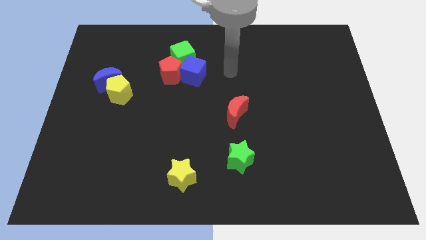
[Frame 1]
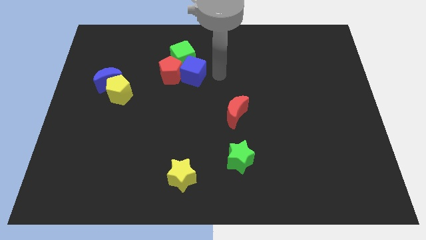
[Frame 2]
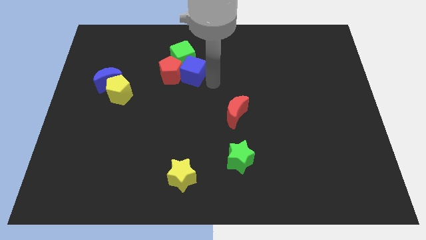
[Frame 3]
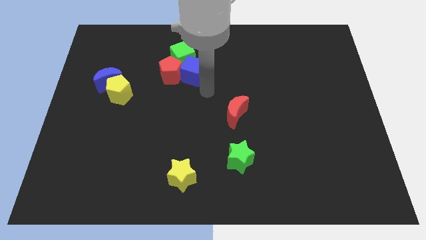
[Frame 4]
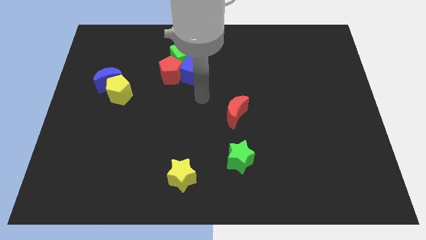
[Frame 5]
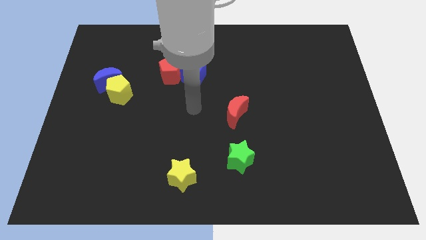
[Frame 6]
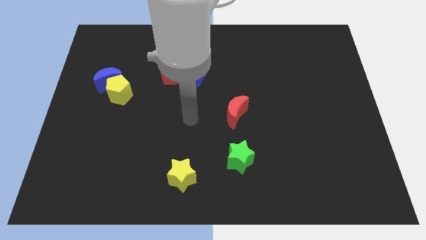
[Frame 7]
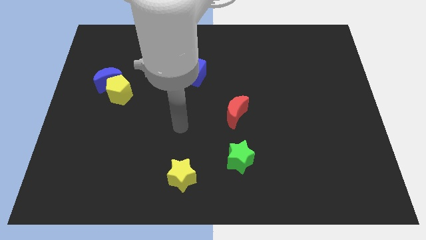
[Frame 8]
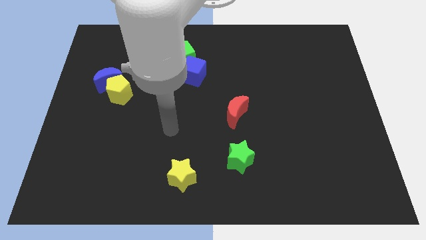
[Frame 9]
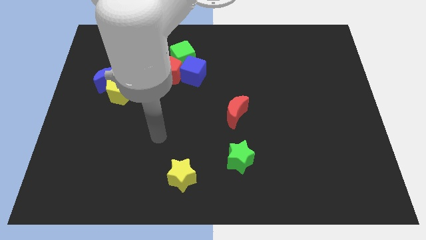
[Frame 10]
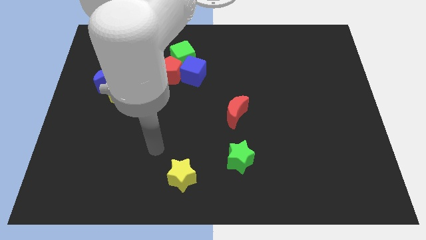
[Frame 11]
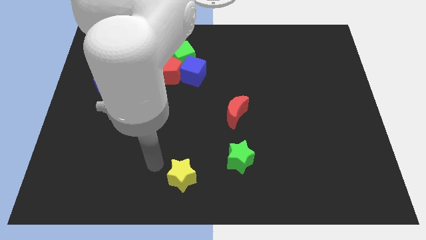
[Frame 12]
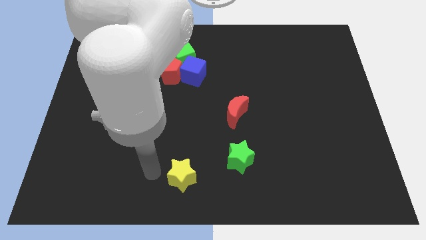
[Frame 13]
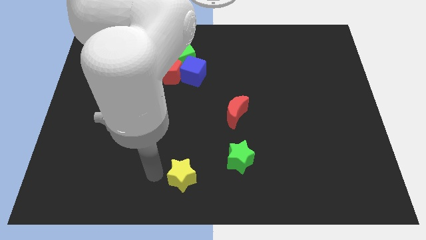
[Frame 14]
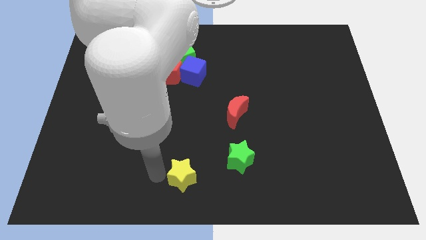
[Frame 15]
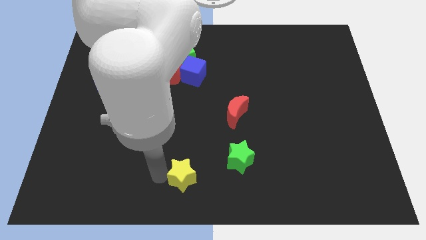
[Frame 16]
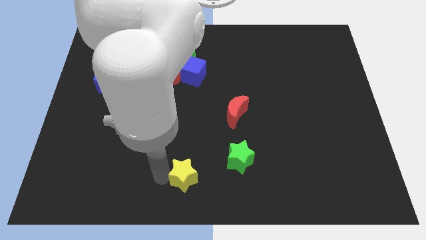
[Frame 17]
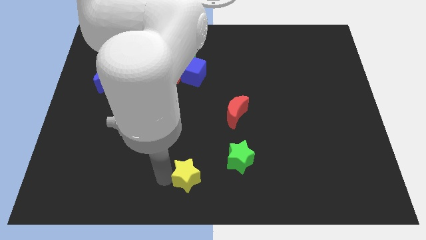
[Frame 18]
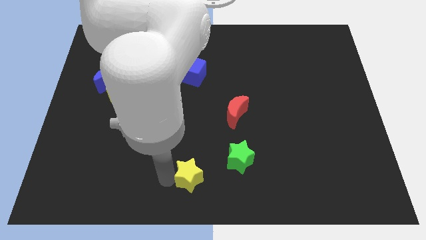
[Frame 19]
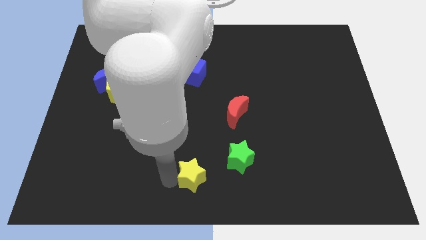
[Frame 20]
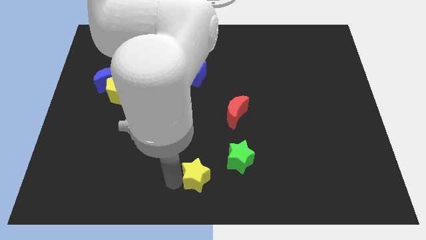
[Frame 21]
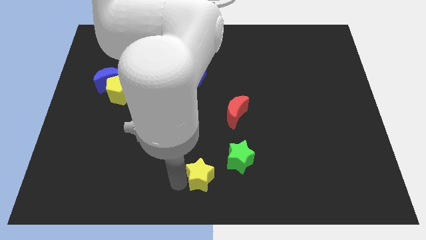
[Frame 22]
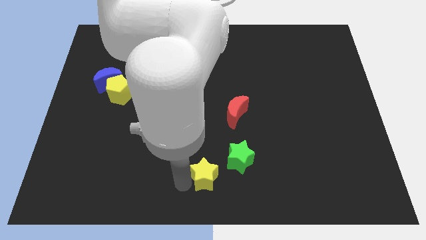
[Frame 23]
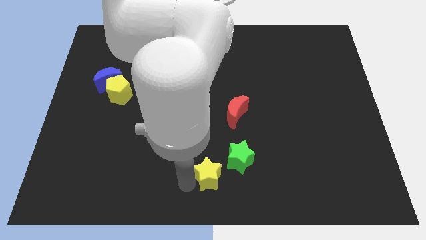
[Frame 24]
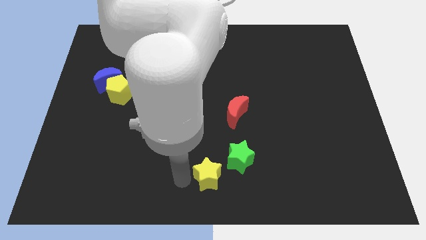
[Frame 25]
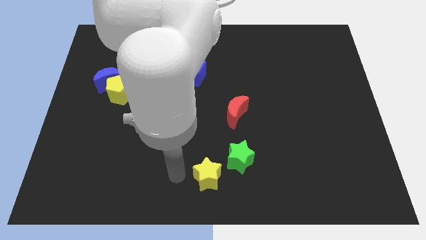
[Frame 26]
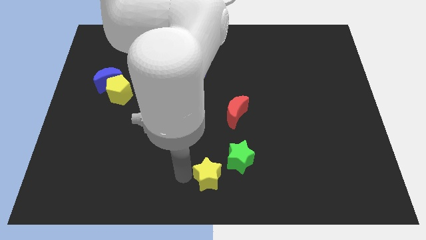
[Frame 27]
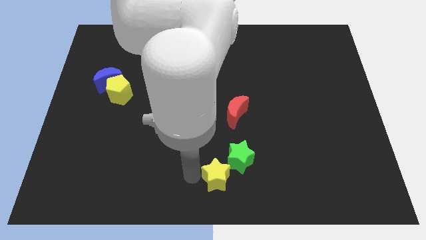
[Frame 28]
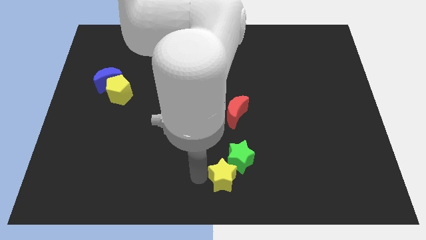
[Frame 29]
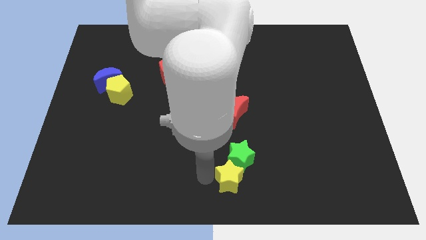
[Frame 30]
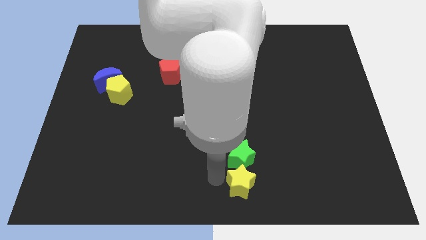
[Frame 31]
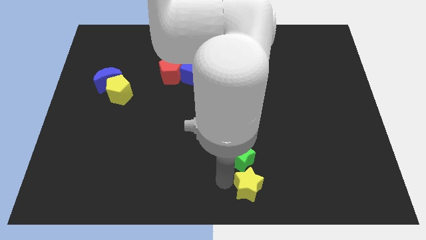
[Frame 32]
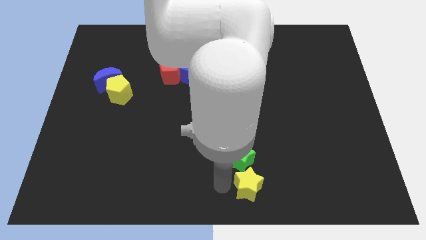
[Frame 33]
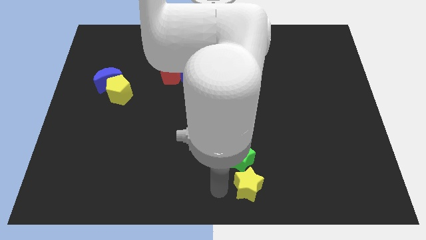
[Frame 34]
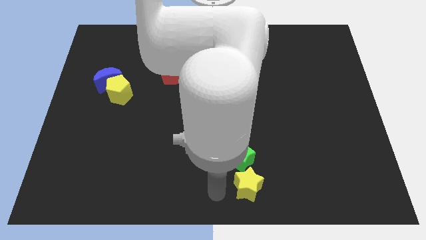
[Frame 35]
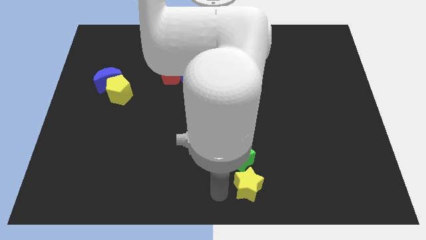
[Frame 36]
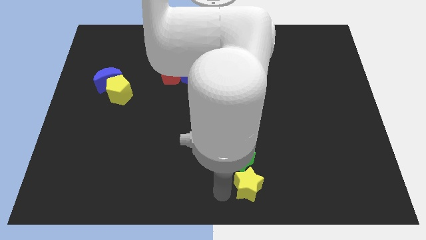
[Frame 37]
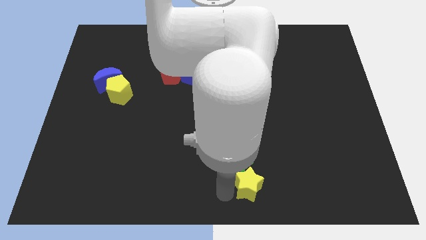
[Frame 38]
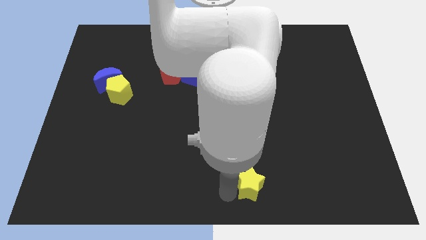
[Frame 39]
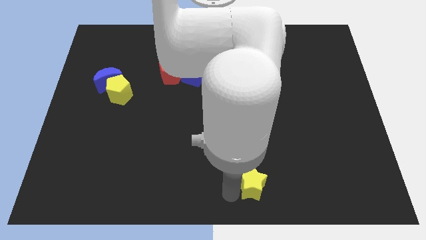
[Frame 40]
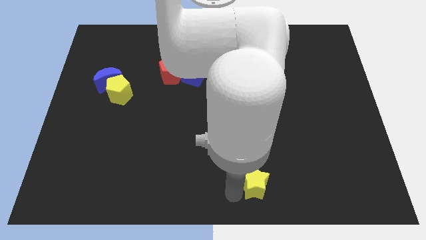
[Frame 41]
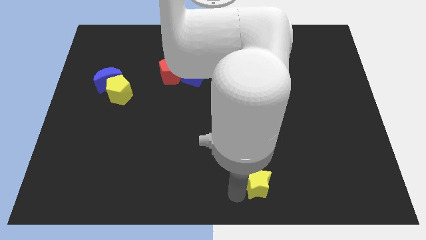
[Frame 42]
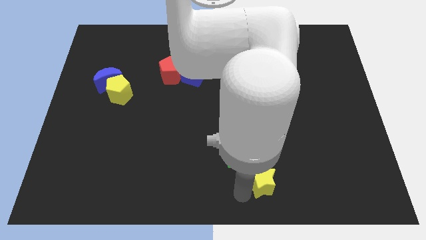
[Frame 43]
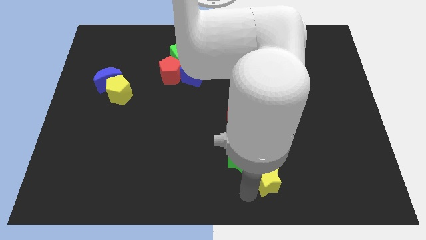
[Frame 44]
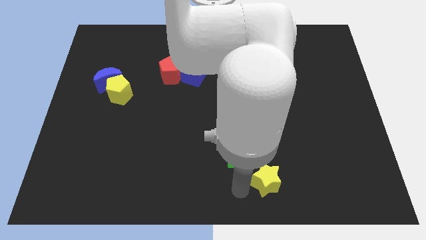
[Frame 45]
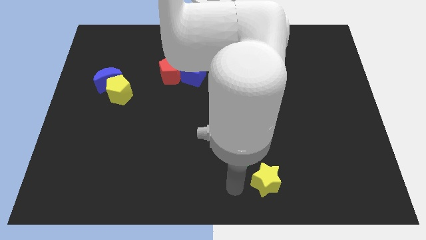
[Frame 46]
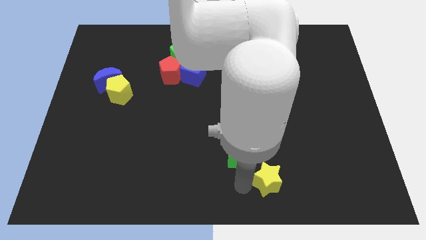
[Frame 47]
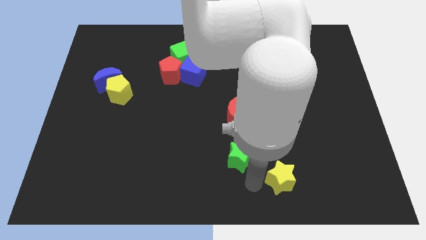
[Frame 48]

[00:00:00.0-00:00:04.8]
slide the yellow star to the right

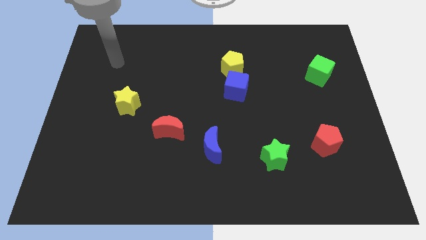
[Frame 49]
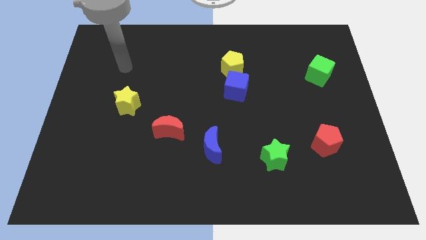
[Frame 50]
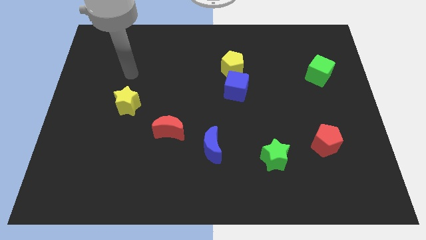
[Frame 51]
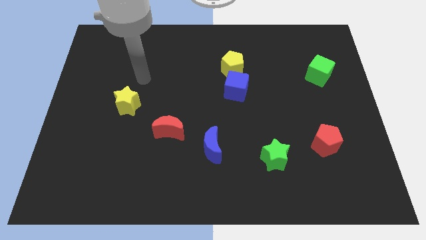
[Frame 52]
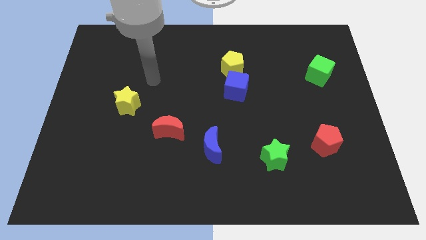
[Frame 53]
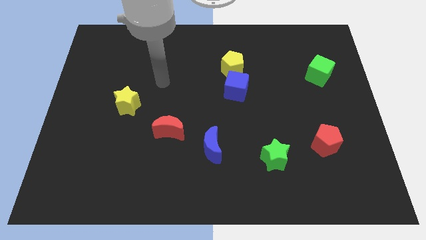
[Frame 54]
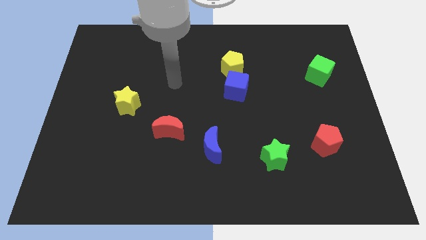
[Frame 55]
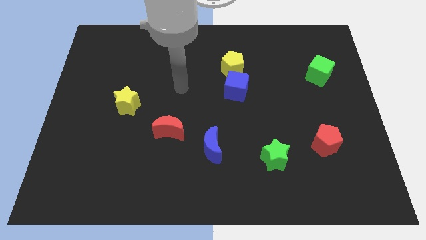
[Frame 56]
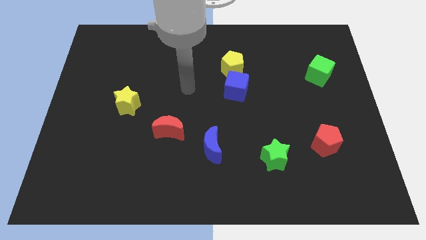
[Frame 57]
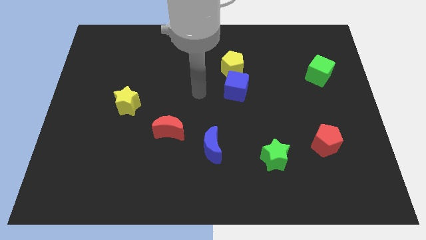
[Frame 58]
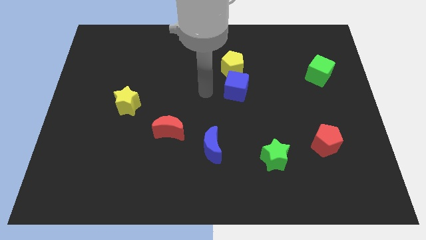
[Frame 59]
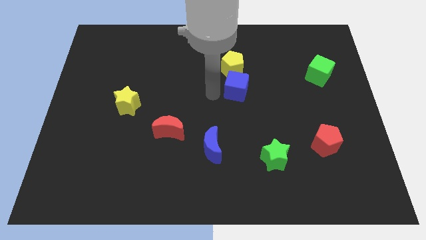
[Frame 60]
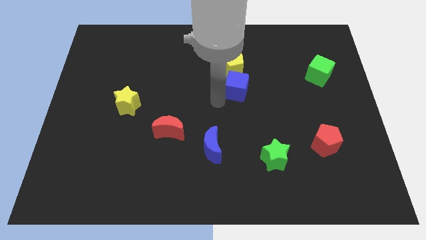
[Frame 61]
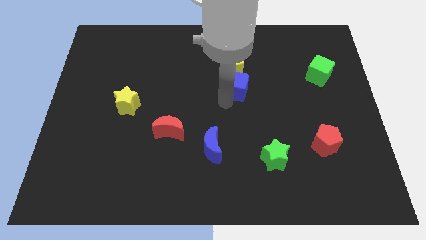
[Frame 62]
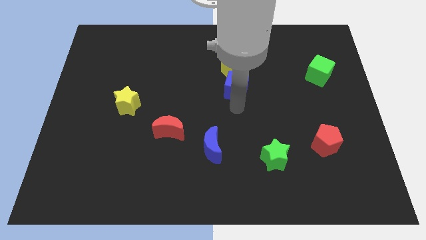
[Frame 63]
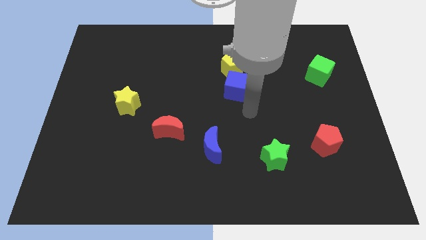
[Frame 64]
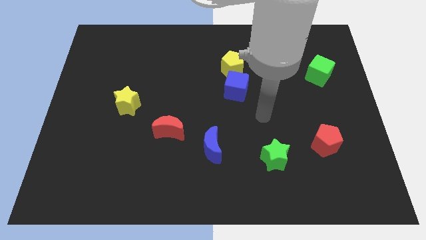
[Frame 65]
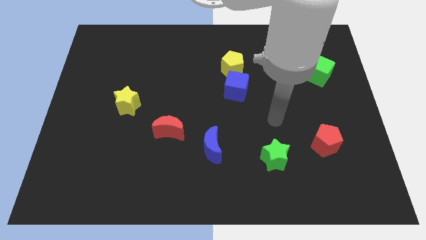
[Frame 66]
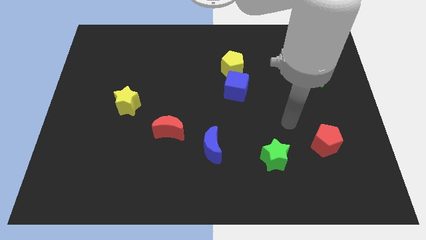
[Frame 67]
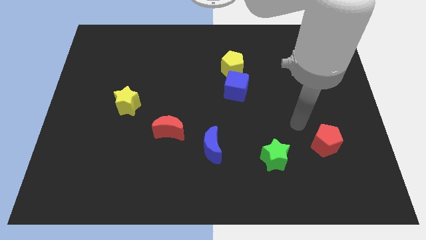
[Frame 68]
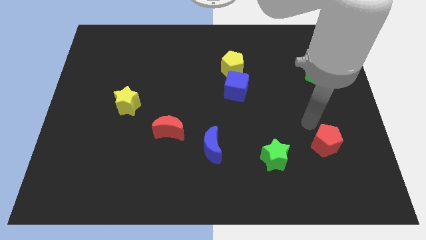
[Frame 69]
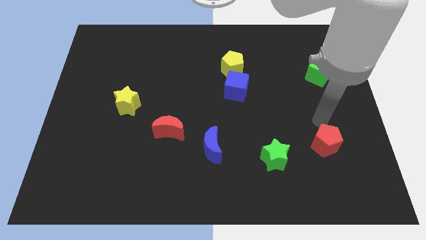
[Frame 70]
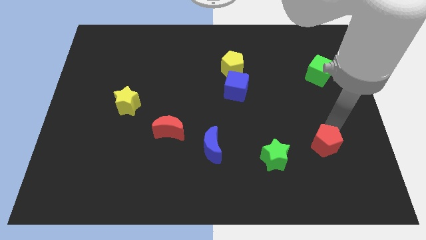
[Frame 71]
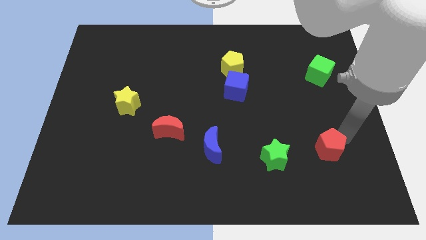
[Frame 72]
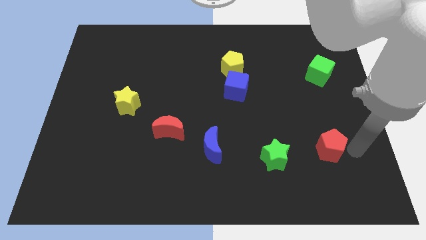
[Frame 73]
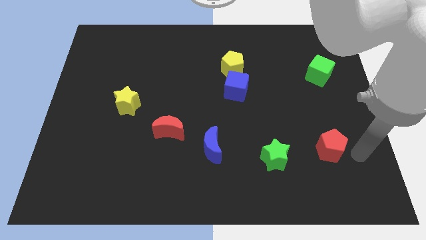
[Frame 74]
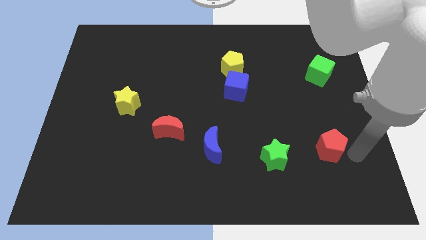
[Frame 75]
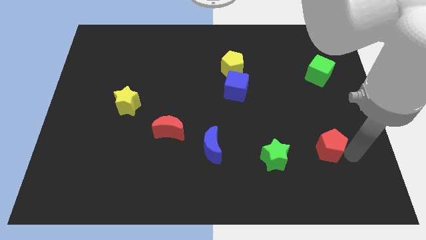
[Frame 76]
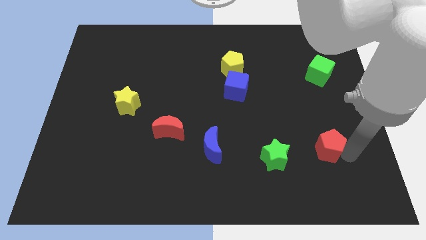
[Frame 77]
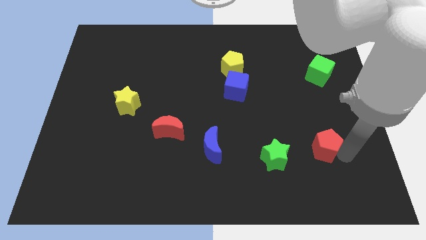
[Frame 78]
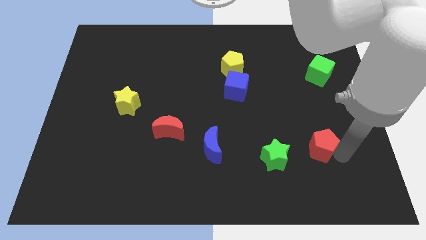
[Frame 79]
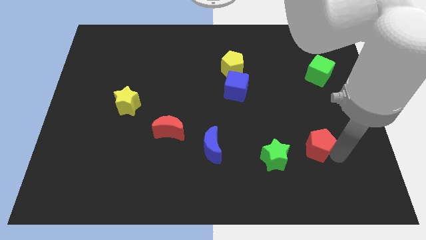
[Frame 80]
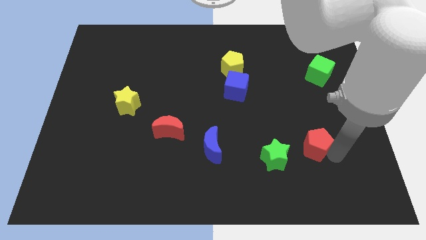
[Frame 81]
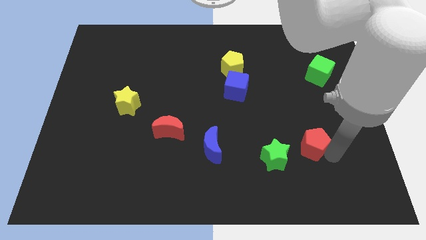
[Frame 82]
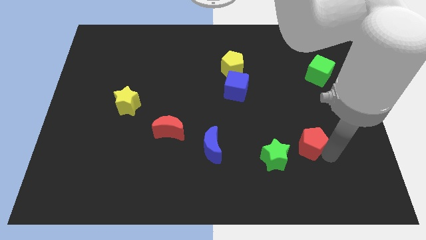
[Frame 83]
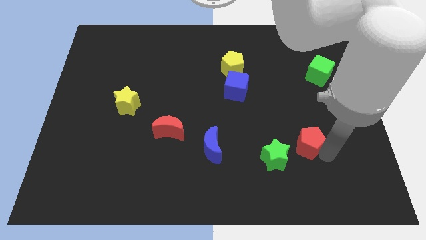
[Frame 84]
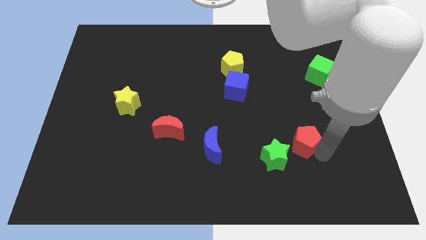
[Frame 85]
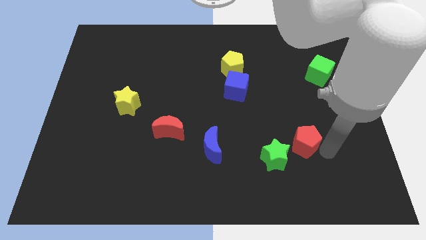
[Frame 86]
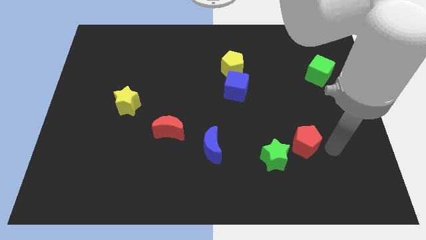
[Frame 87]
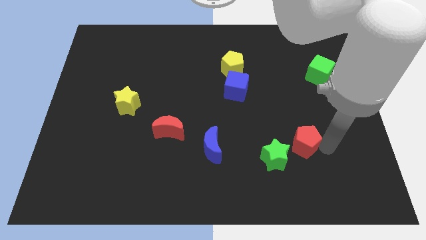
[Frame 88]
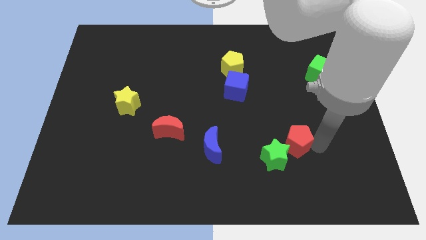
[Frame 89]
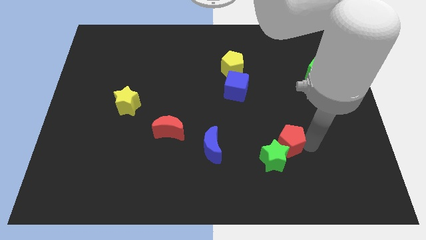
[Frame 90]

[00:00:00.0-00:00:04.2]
slightly push the red pentagon to the left
